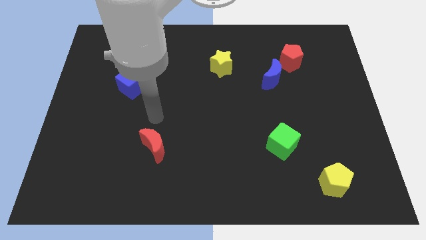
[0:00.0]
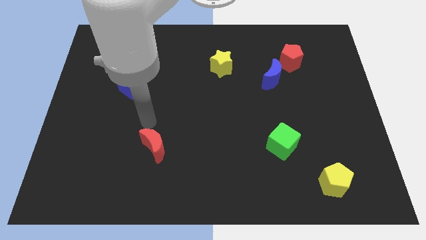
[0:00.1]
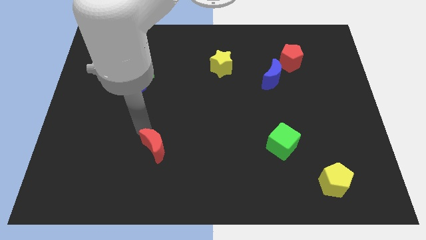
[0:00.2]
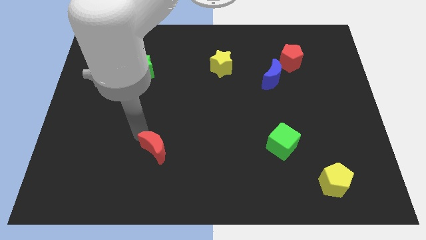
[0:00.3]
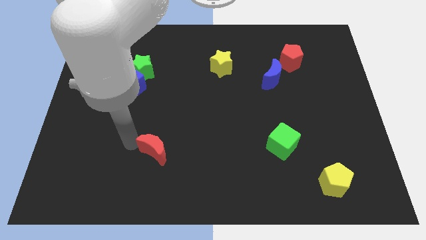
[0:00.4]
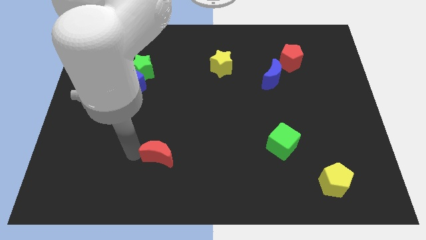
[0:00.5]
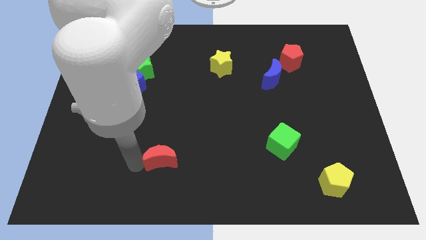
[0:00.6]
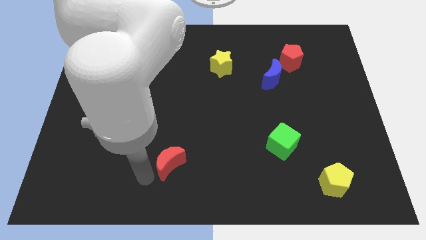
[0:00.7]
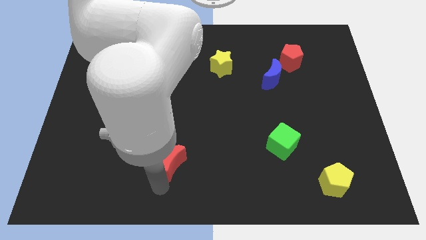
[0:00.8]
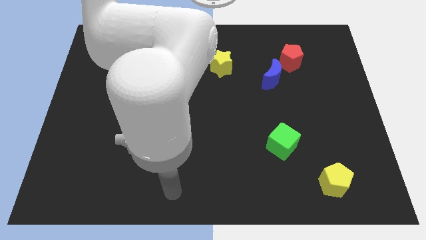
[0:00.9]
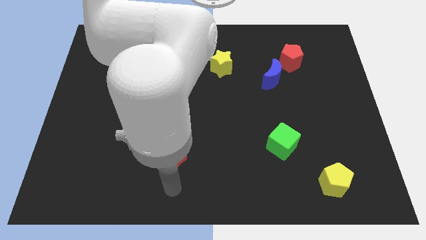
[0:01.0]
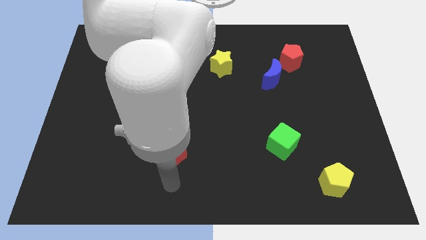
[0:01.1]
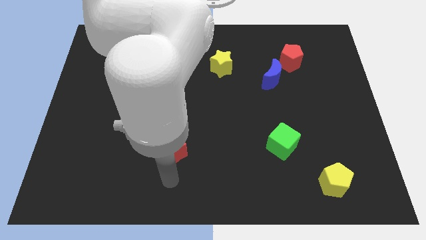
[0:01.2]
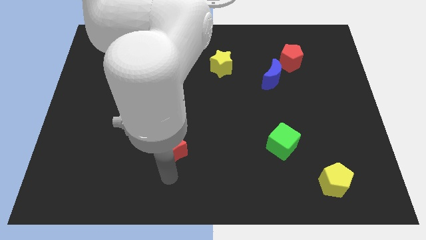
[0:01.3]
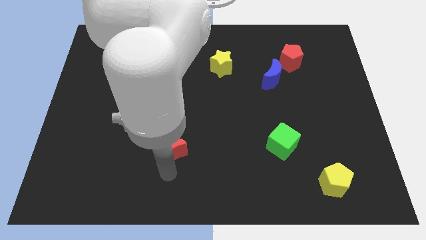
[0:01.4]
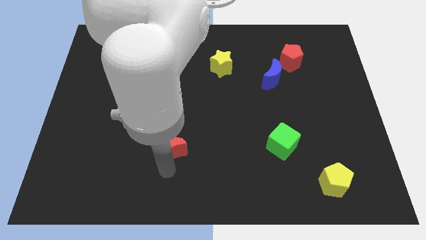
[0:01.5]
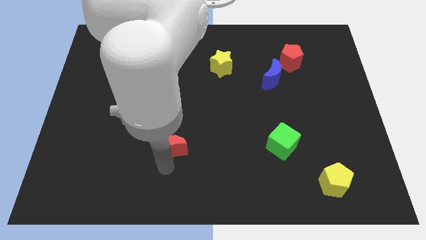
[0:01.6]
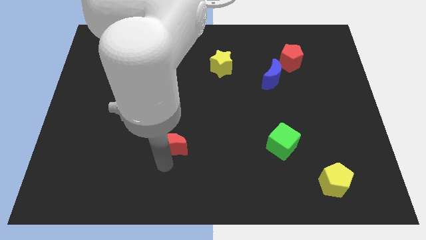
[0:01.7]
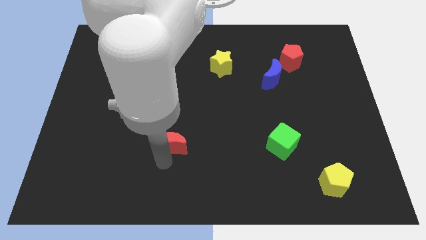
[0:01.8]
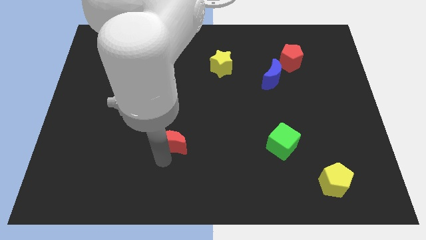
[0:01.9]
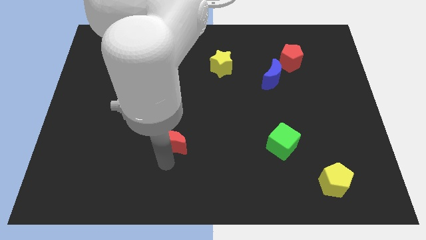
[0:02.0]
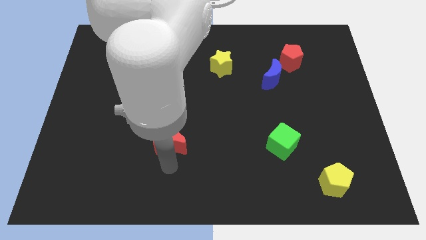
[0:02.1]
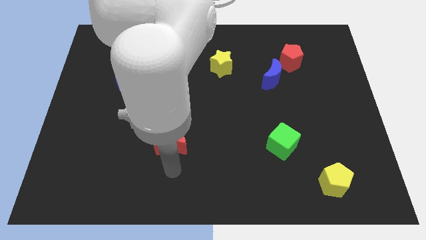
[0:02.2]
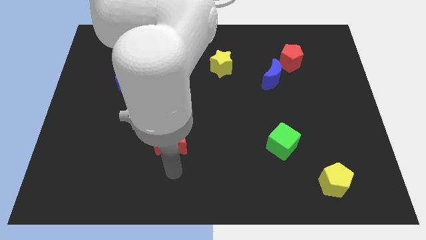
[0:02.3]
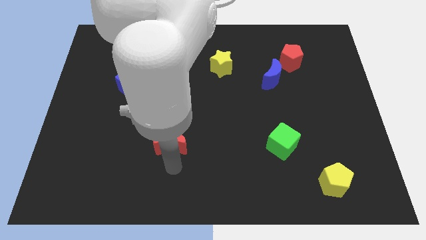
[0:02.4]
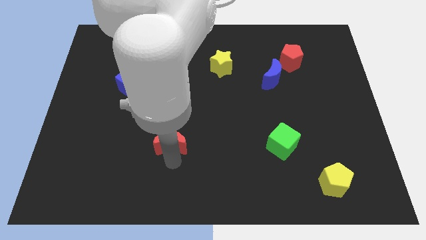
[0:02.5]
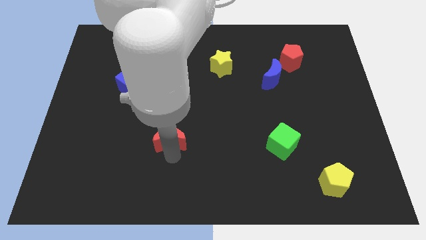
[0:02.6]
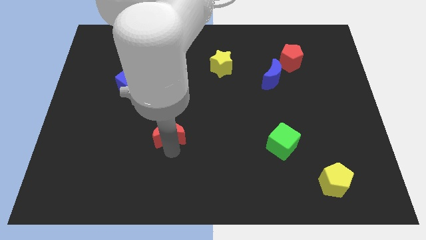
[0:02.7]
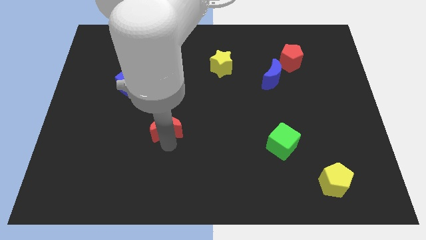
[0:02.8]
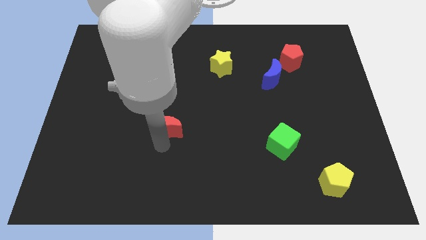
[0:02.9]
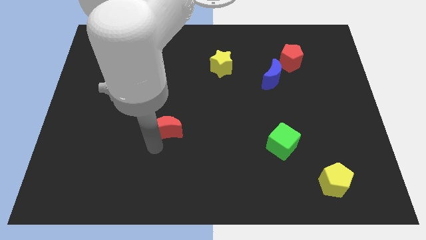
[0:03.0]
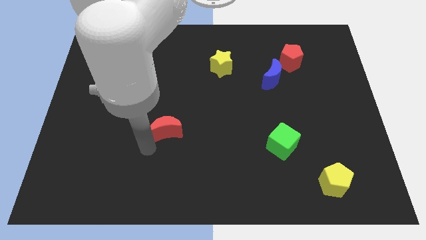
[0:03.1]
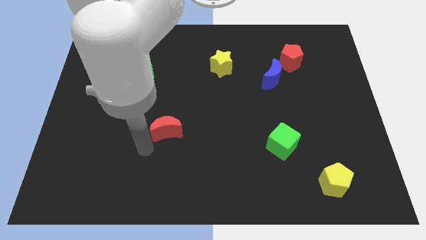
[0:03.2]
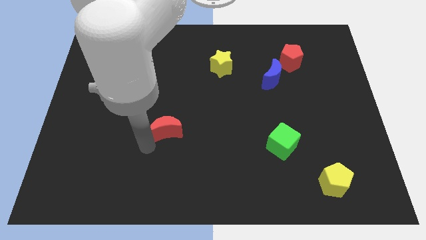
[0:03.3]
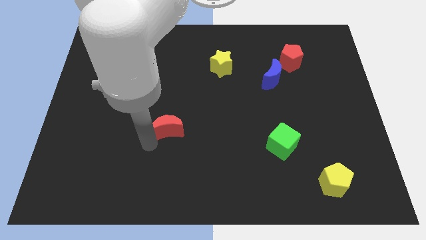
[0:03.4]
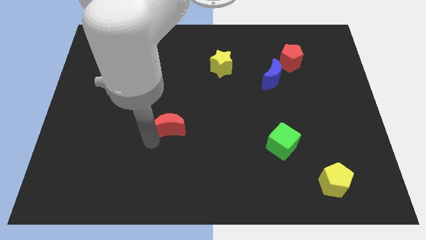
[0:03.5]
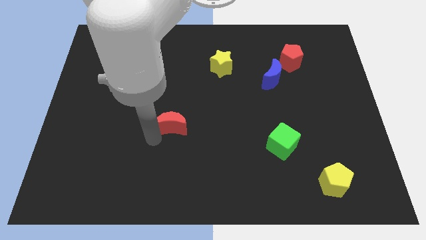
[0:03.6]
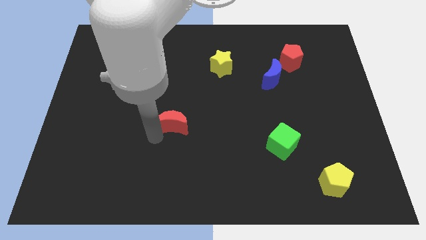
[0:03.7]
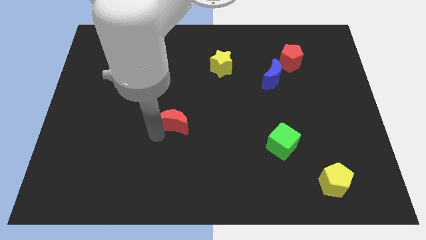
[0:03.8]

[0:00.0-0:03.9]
slightly push the red moon upwards and then to the right

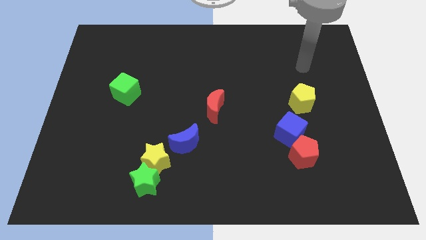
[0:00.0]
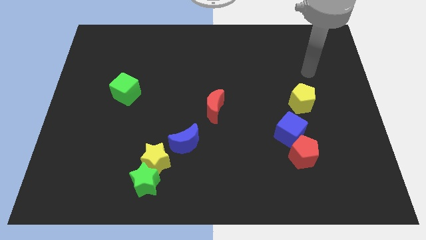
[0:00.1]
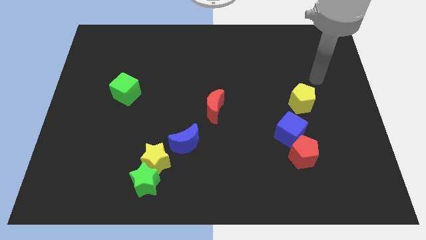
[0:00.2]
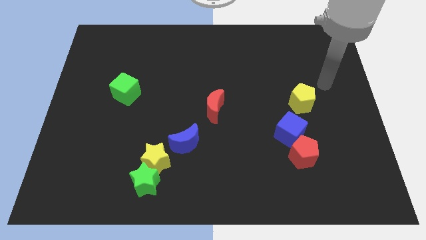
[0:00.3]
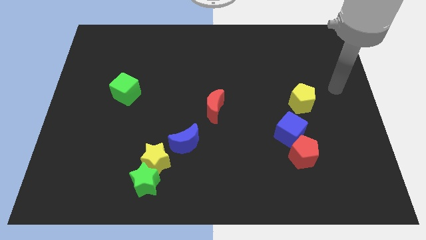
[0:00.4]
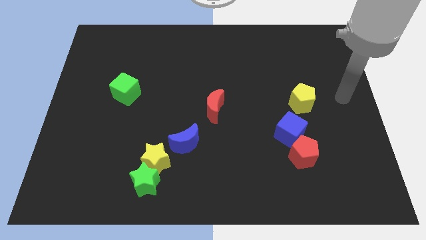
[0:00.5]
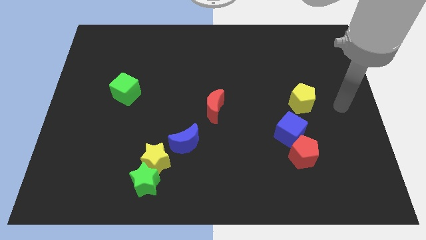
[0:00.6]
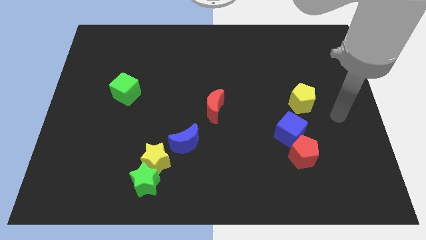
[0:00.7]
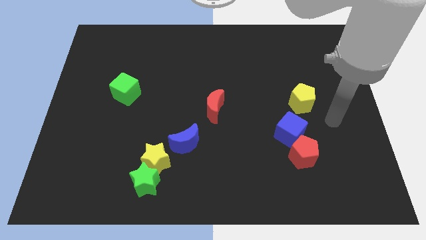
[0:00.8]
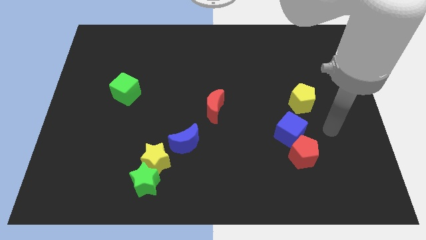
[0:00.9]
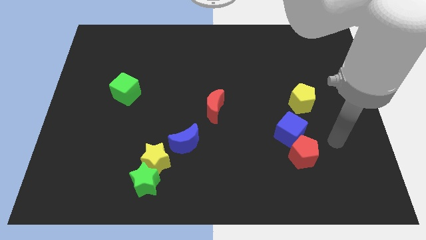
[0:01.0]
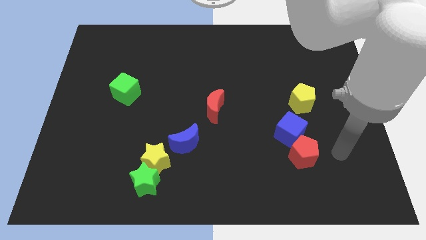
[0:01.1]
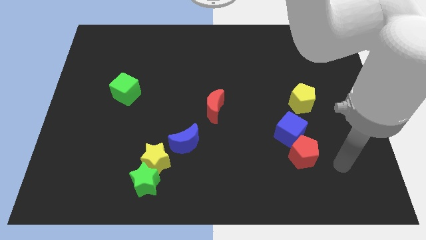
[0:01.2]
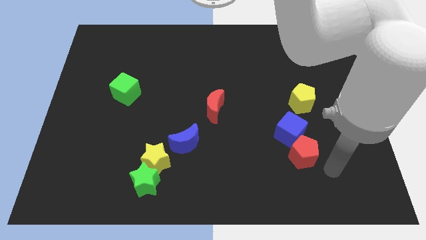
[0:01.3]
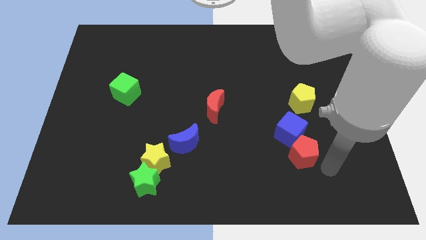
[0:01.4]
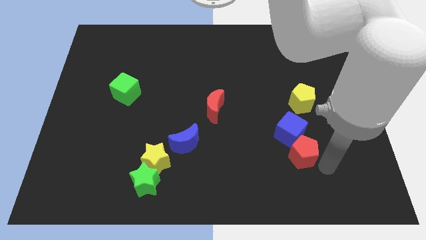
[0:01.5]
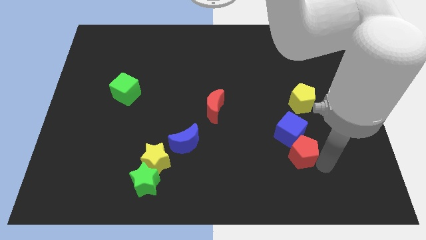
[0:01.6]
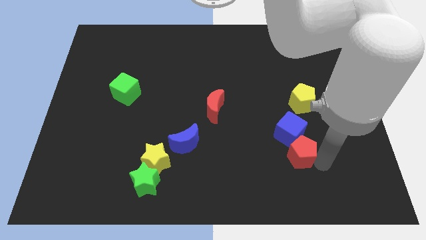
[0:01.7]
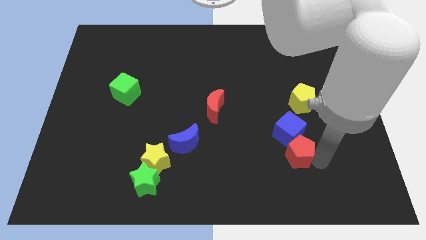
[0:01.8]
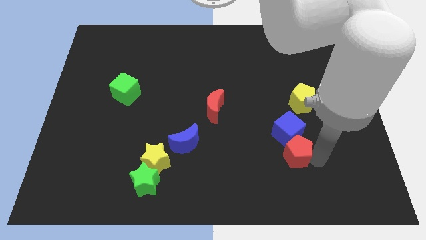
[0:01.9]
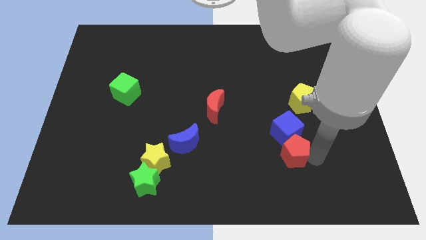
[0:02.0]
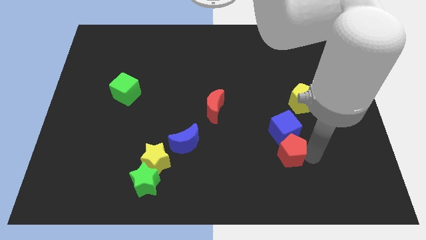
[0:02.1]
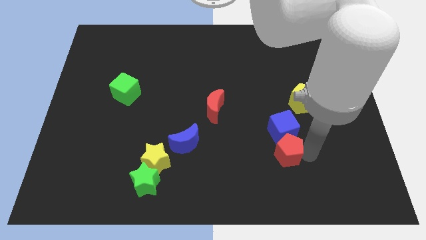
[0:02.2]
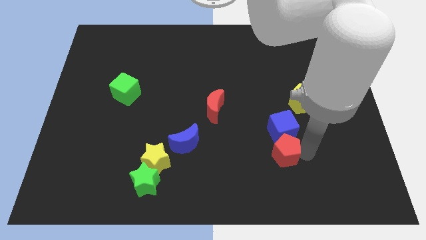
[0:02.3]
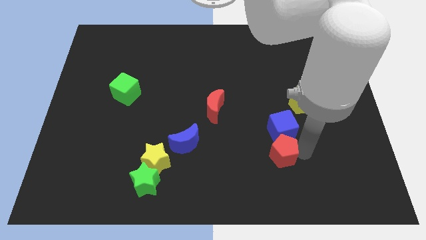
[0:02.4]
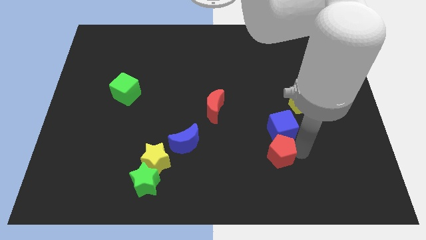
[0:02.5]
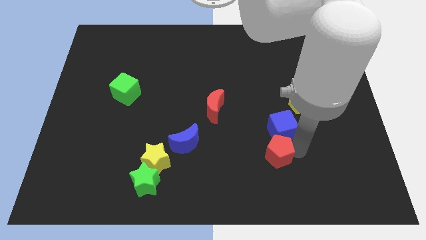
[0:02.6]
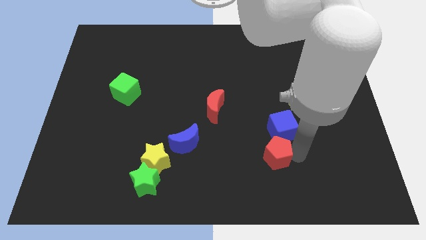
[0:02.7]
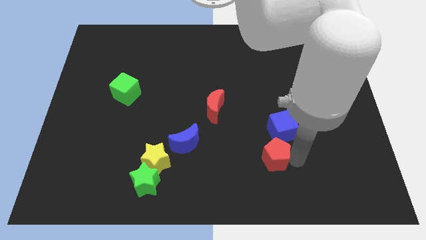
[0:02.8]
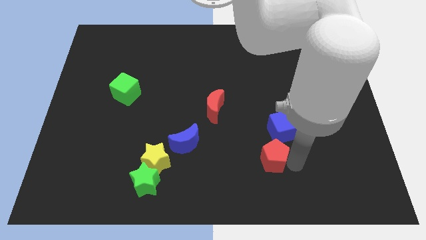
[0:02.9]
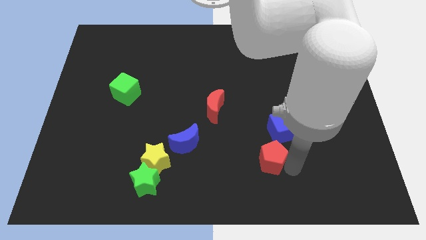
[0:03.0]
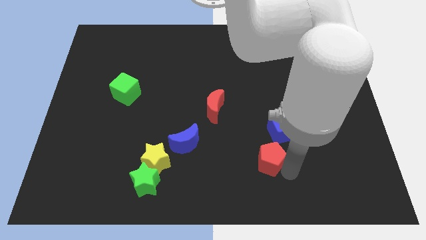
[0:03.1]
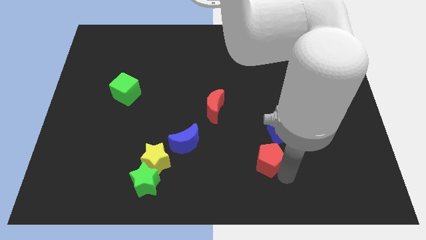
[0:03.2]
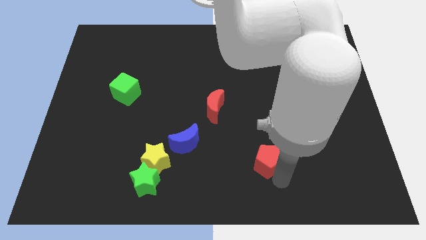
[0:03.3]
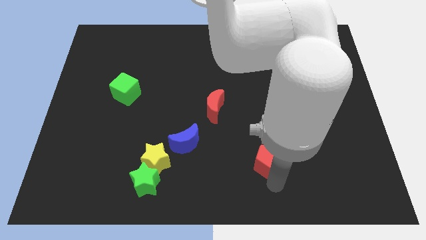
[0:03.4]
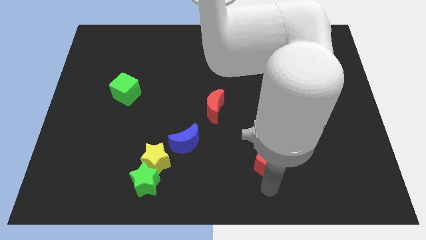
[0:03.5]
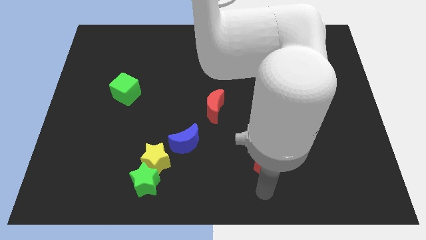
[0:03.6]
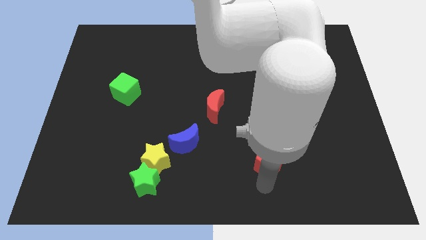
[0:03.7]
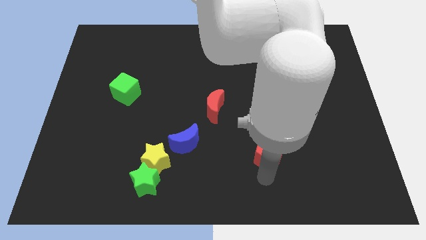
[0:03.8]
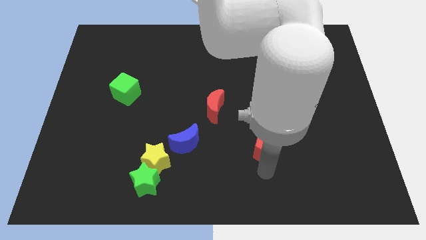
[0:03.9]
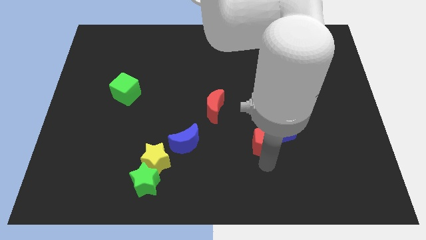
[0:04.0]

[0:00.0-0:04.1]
push the red pentagon up and to the left diagonally a bit
